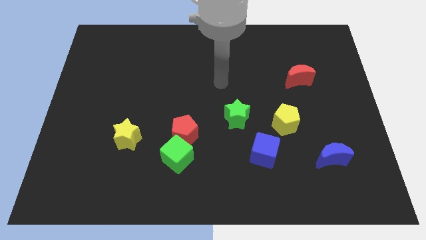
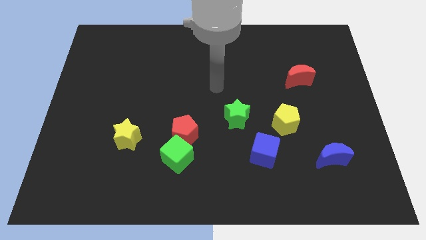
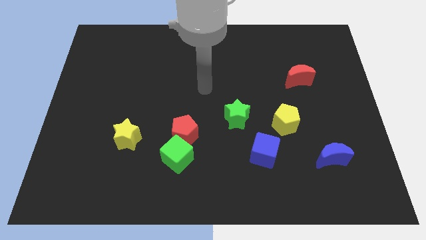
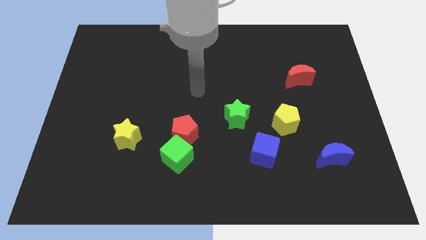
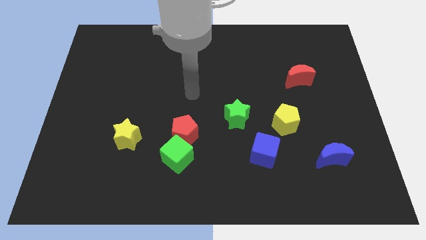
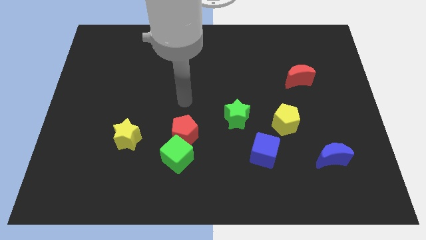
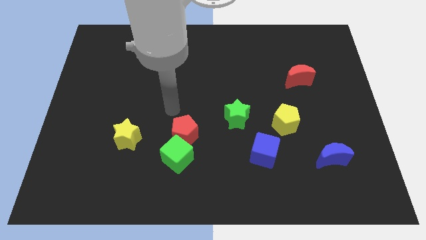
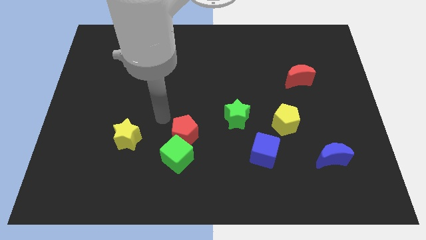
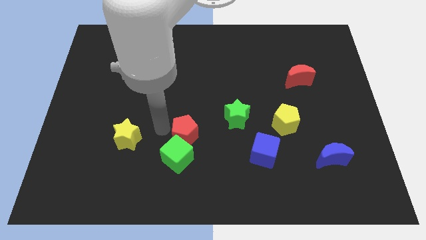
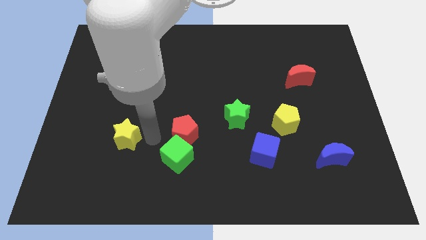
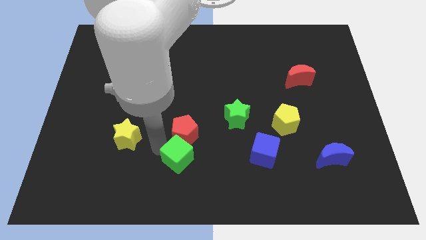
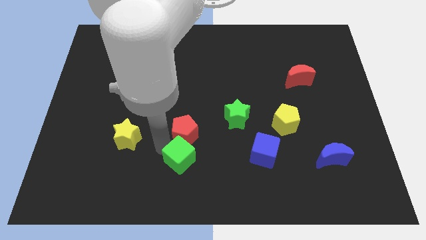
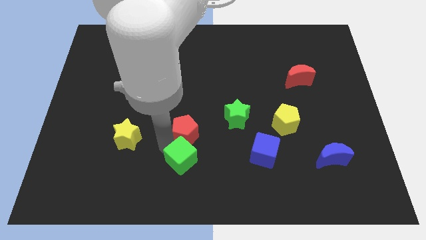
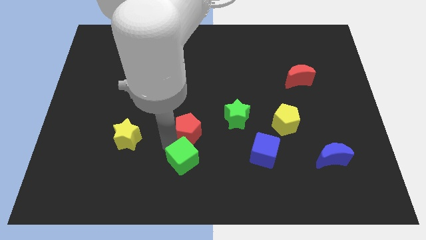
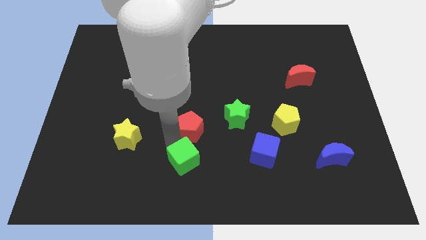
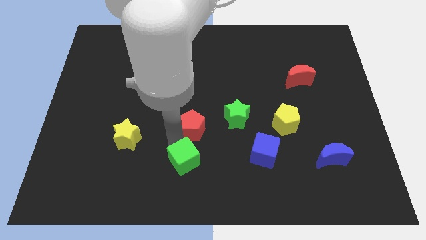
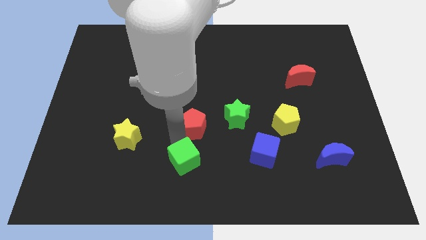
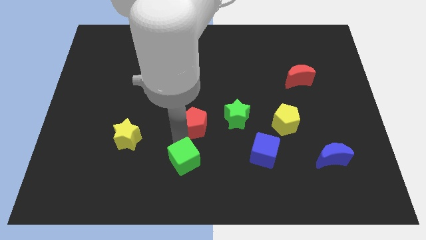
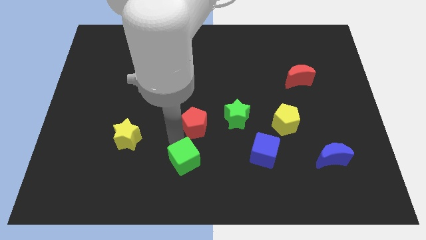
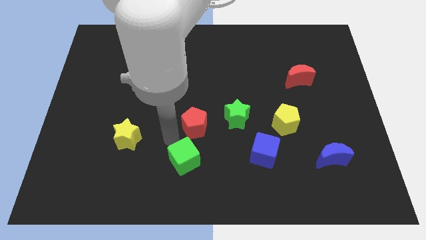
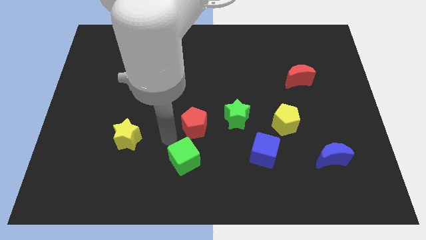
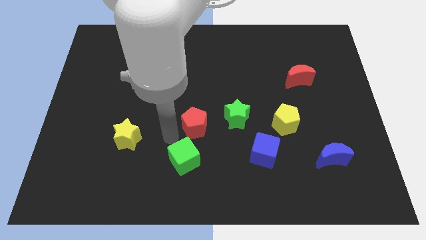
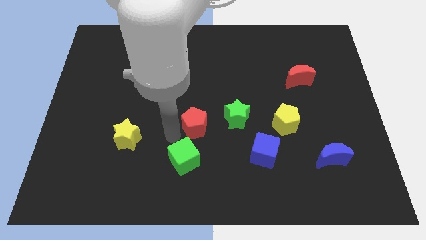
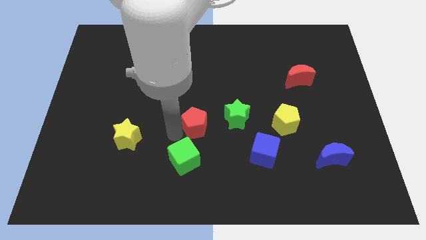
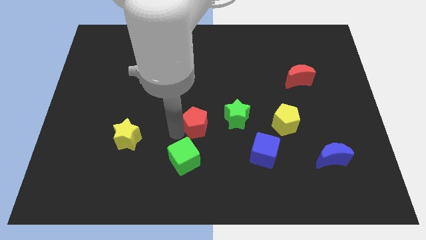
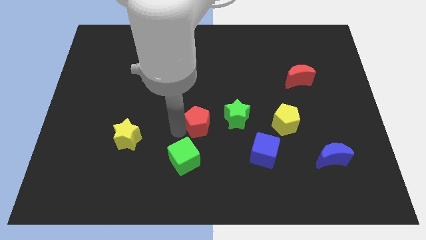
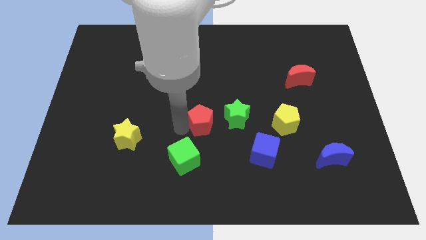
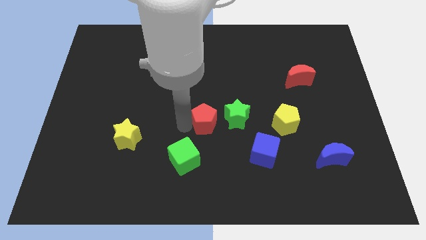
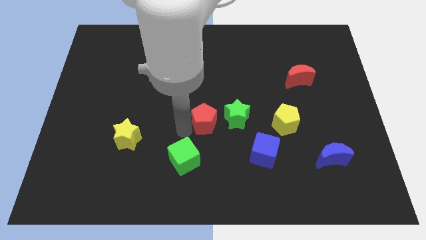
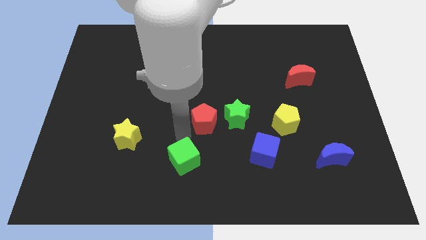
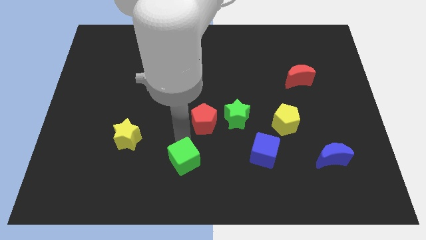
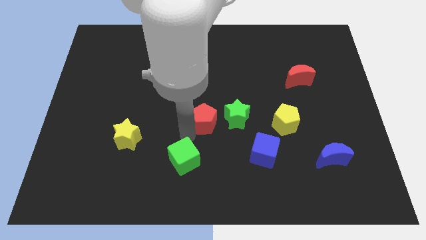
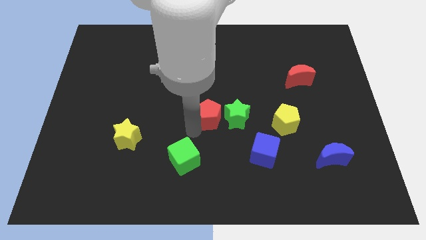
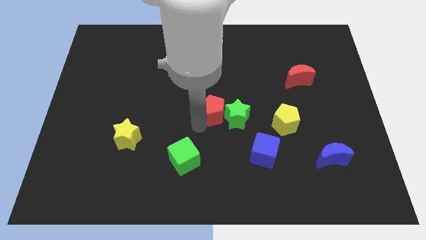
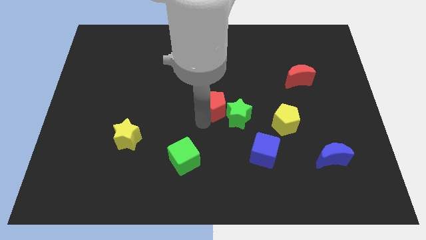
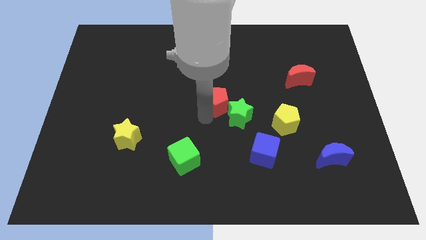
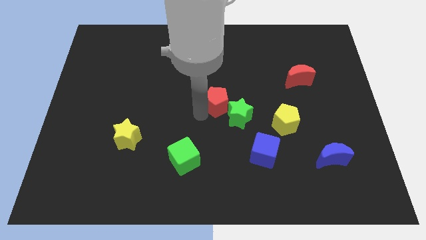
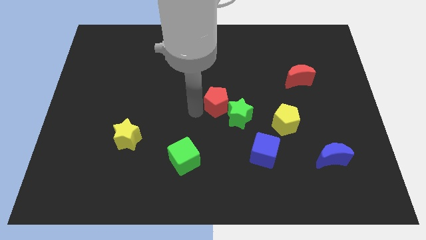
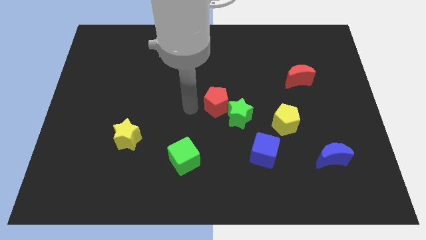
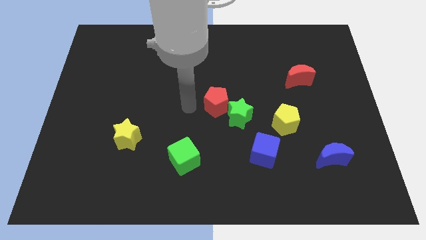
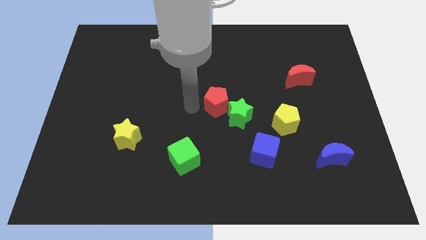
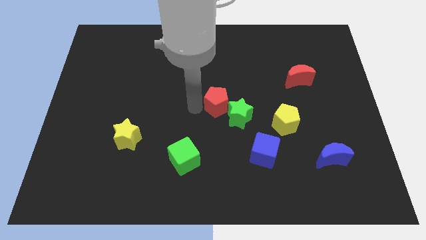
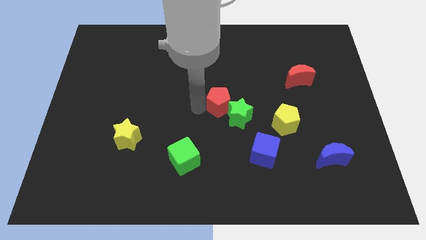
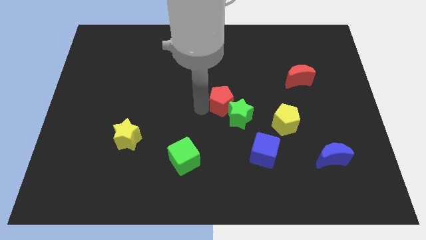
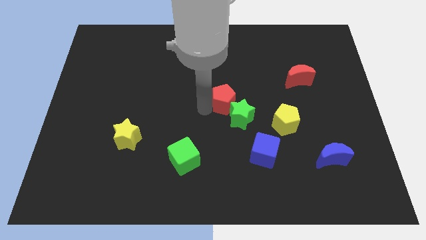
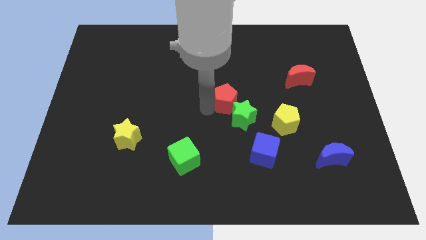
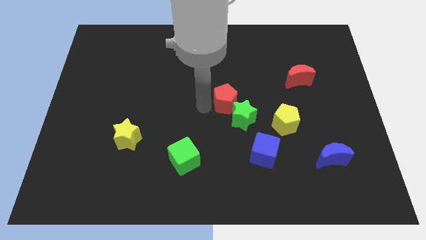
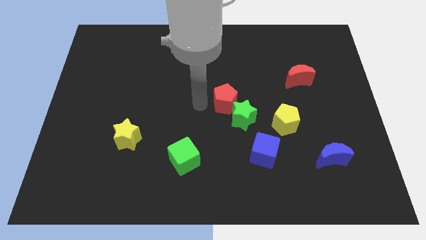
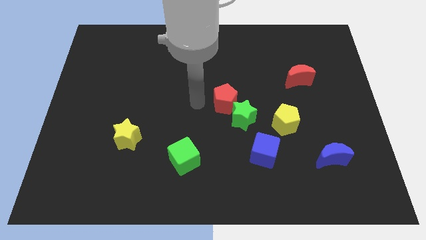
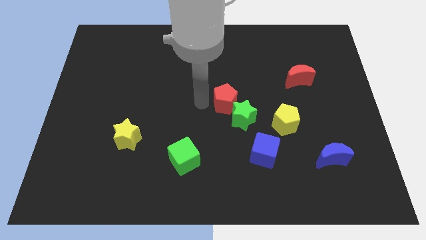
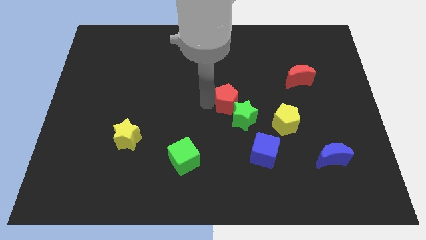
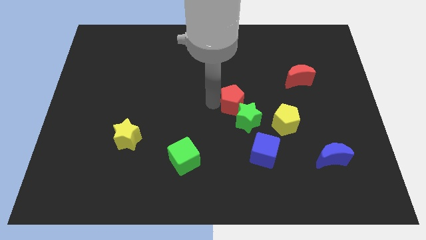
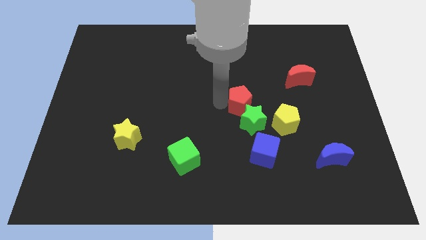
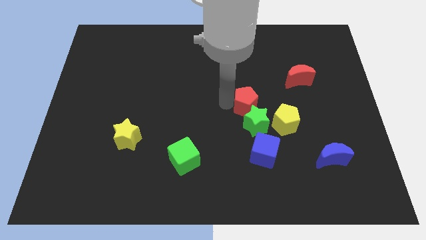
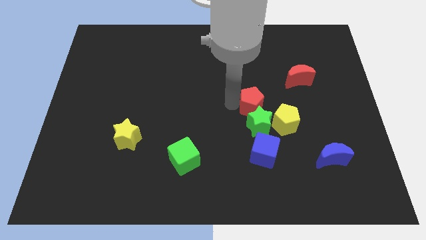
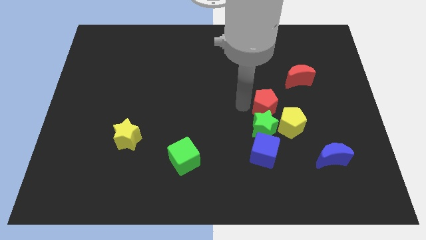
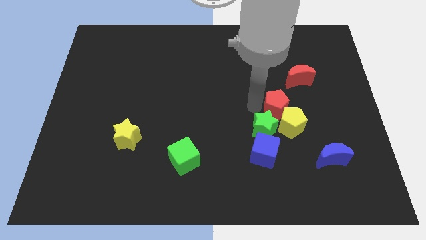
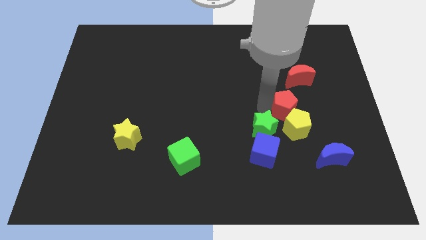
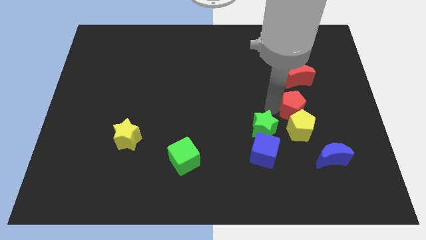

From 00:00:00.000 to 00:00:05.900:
slide the red pentagon to the top right of the yellow pentagon

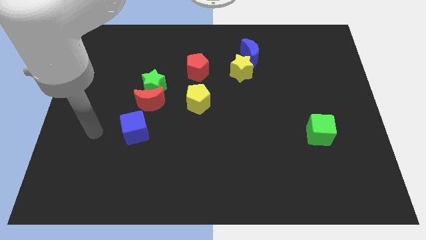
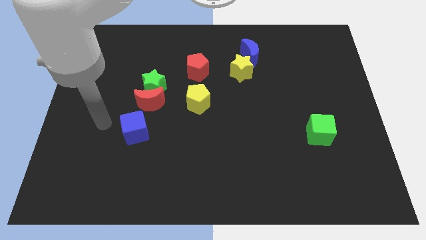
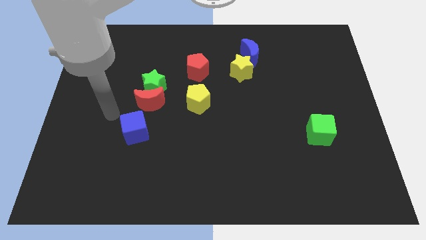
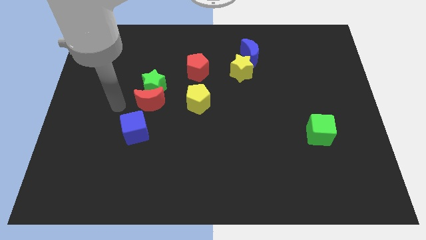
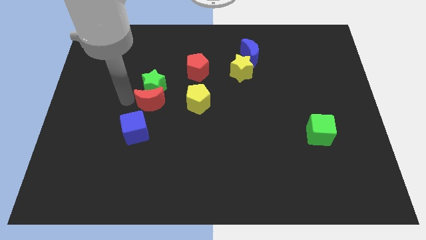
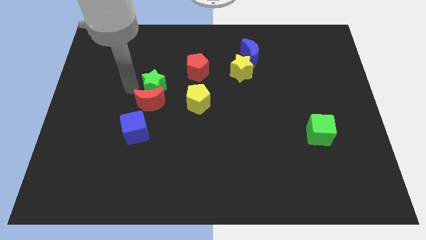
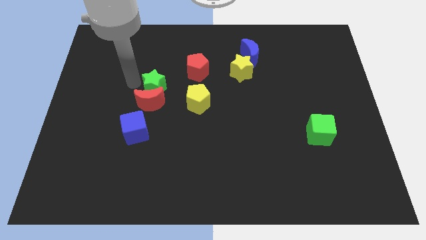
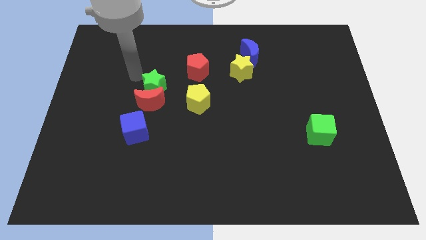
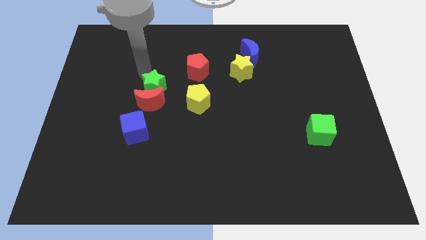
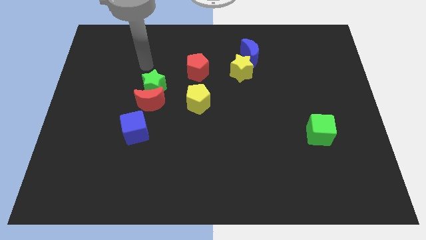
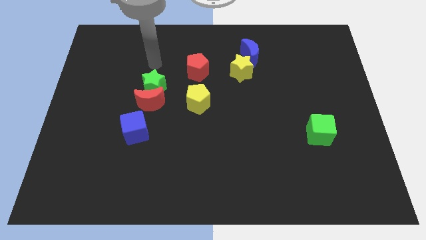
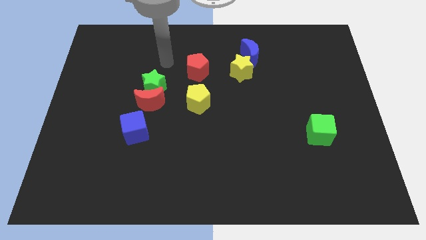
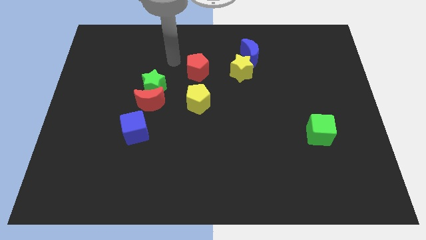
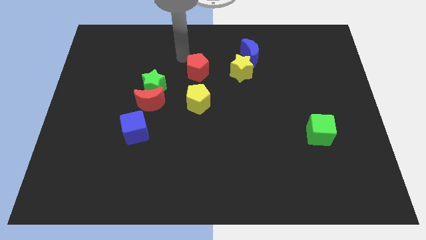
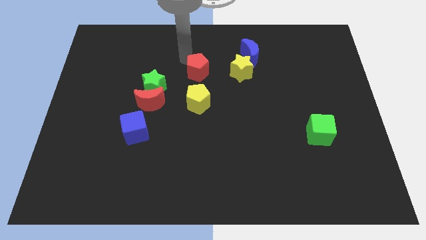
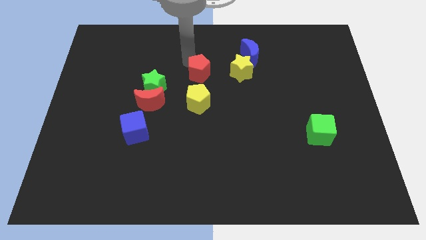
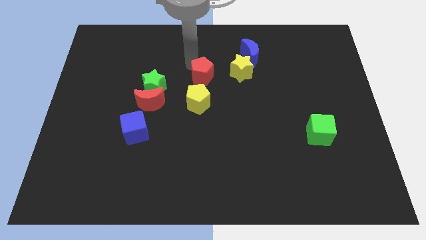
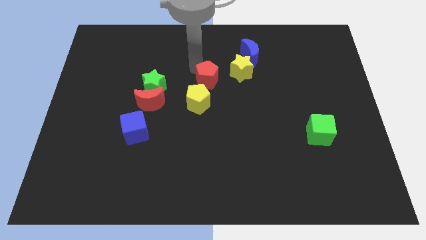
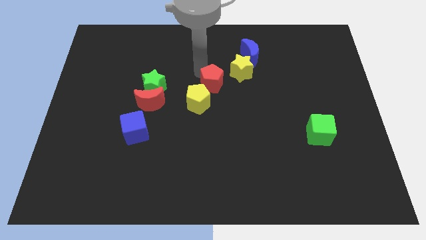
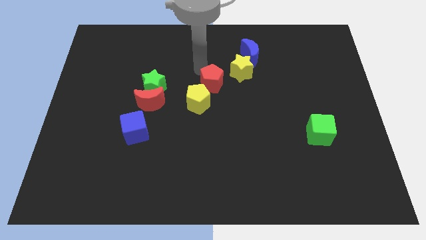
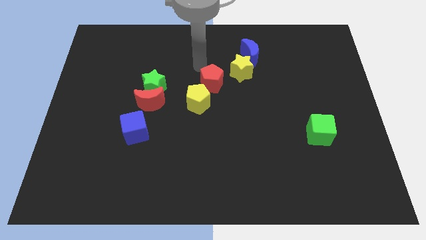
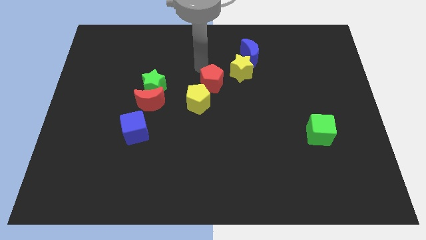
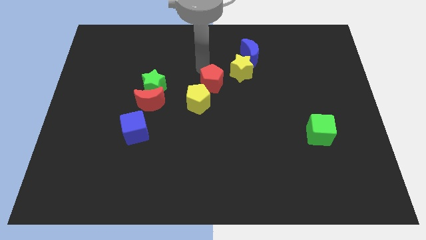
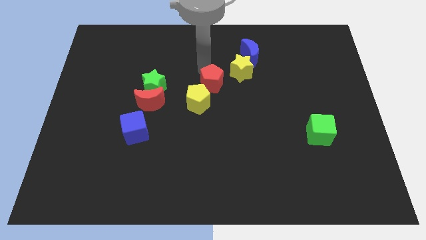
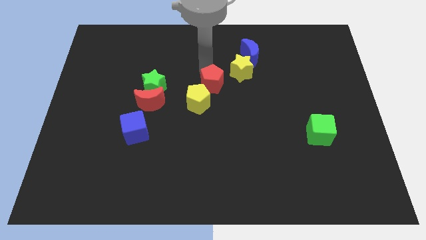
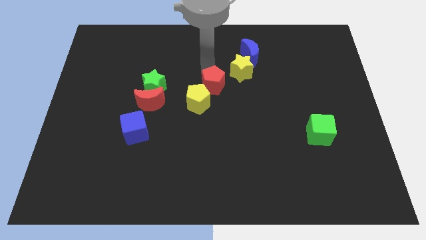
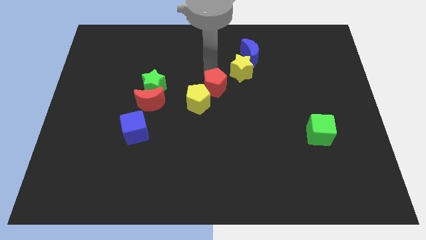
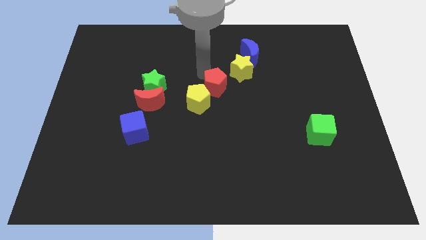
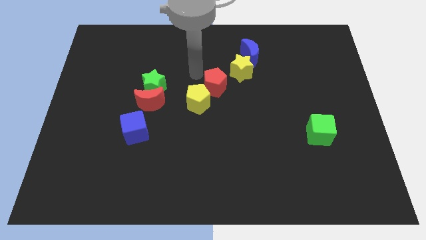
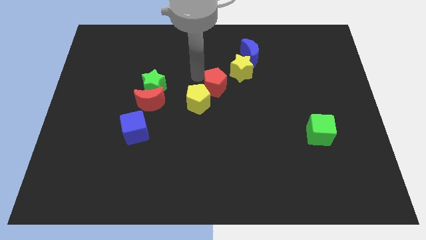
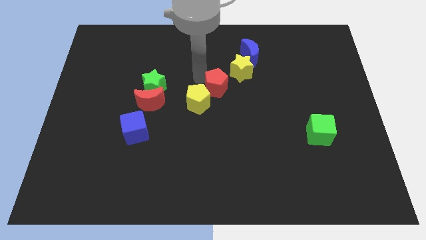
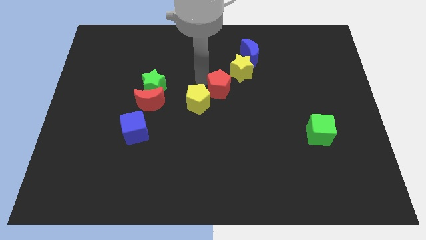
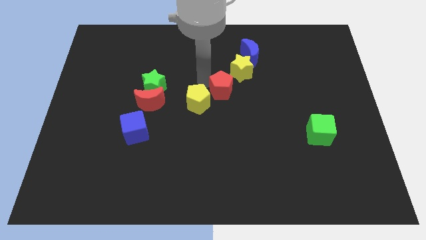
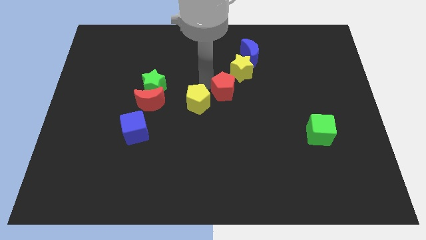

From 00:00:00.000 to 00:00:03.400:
push the red pentagon below the yellow star
